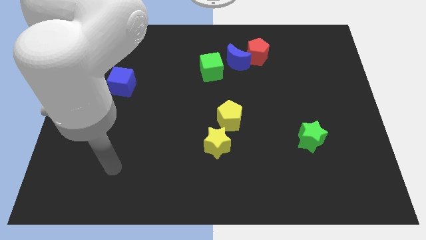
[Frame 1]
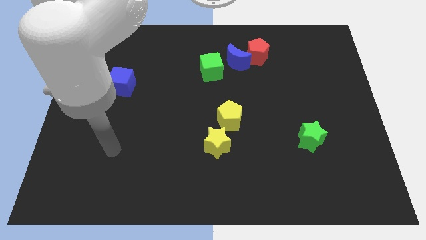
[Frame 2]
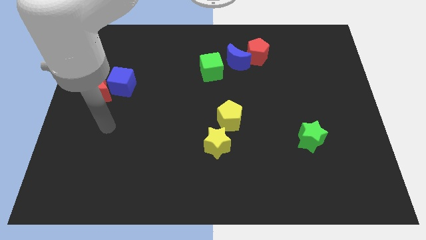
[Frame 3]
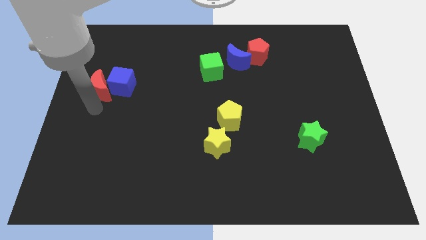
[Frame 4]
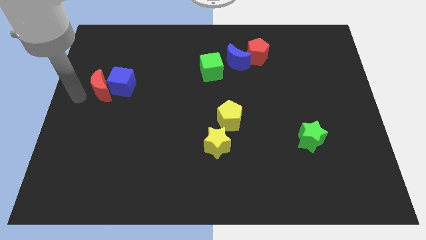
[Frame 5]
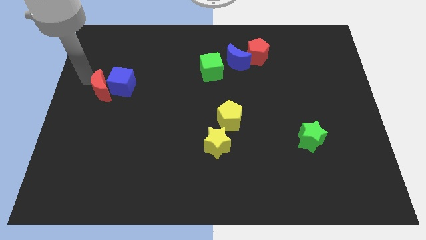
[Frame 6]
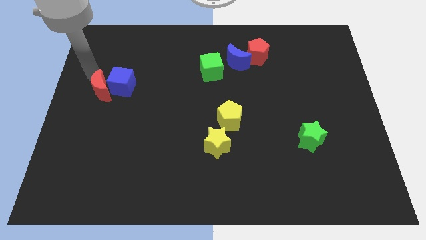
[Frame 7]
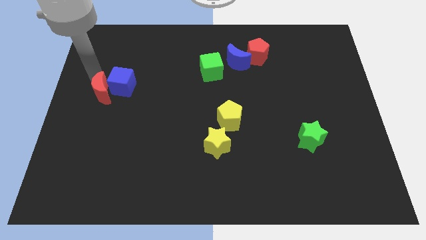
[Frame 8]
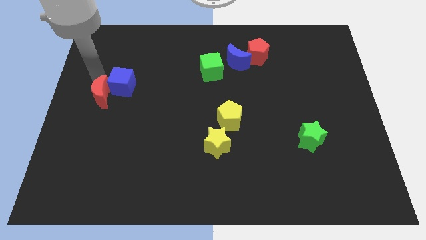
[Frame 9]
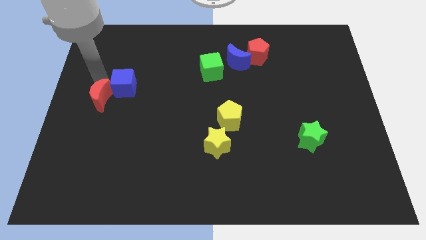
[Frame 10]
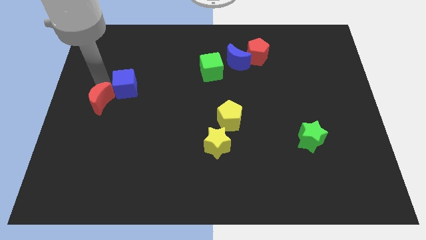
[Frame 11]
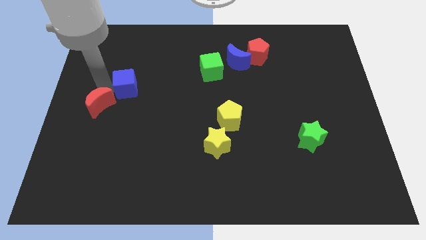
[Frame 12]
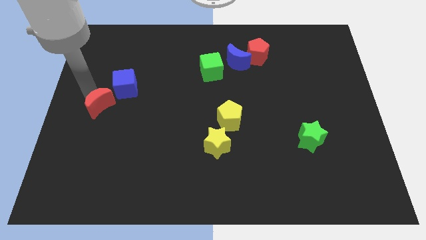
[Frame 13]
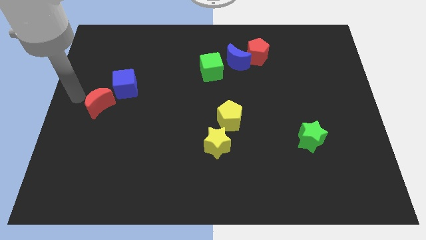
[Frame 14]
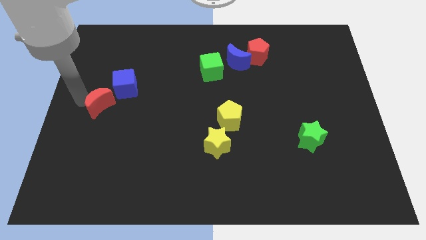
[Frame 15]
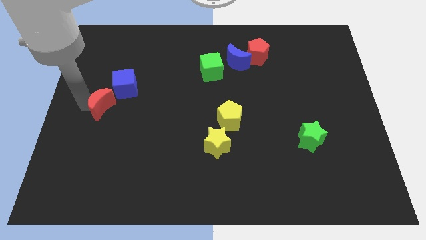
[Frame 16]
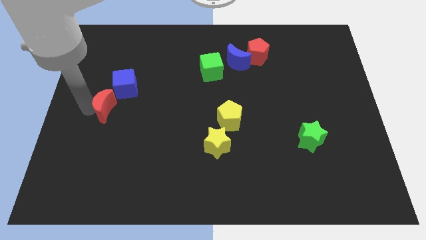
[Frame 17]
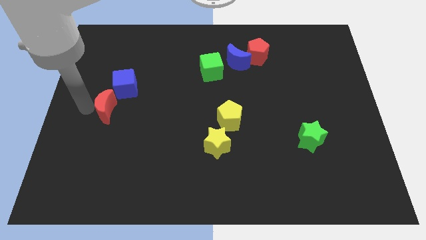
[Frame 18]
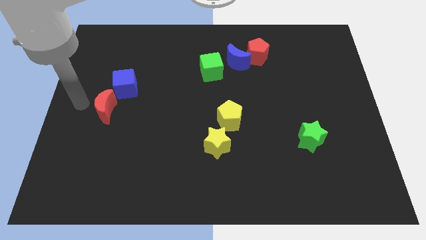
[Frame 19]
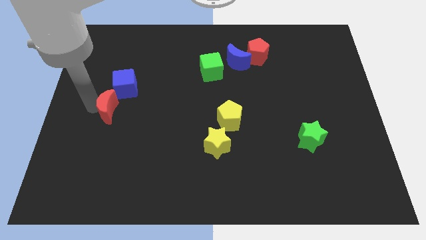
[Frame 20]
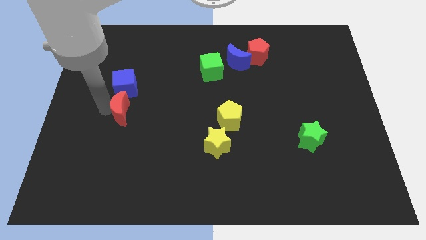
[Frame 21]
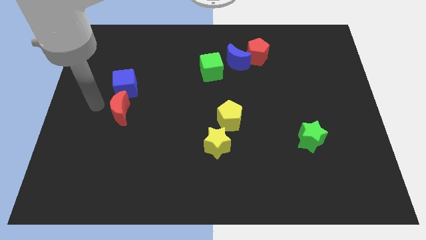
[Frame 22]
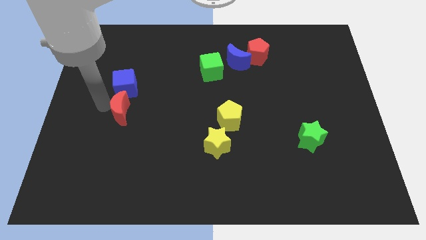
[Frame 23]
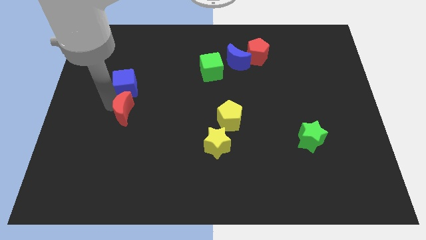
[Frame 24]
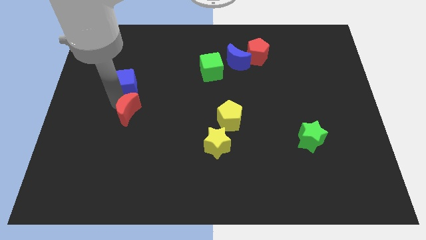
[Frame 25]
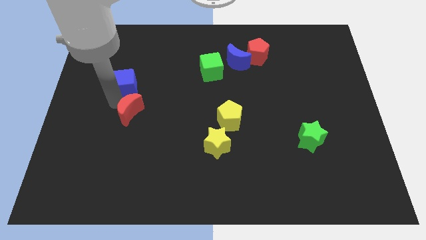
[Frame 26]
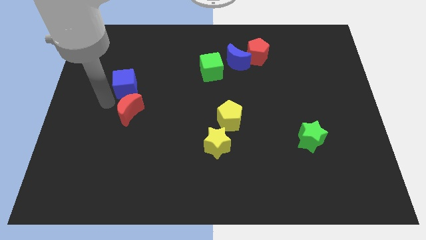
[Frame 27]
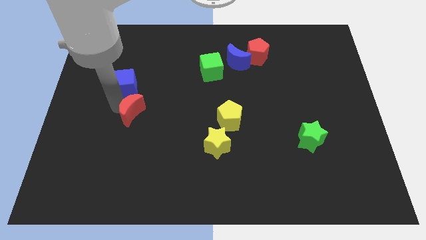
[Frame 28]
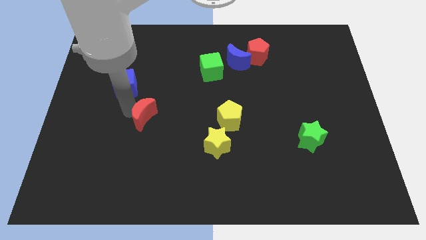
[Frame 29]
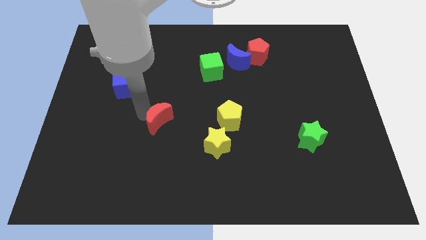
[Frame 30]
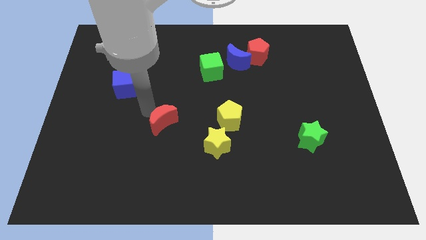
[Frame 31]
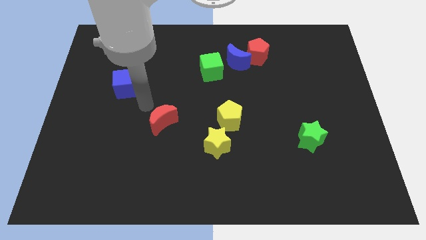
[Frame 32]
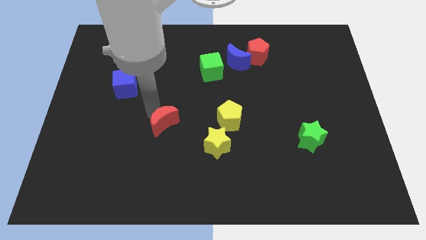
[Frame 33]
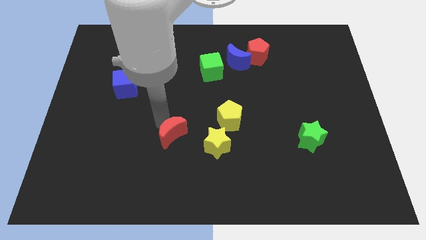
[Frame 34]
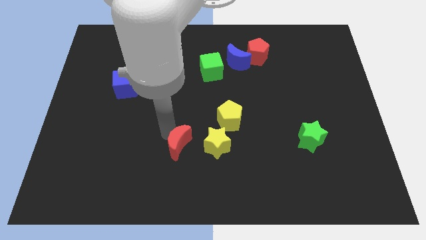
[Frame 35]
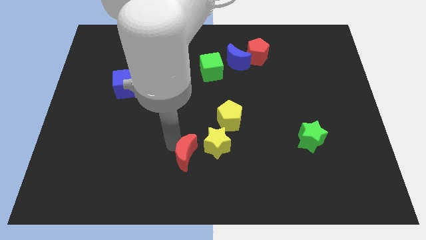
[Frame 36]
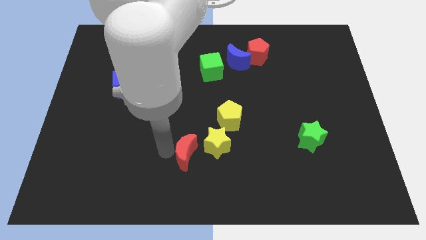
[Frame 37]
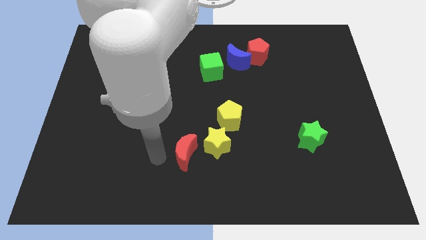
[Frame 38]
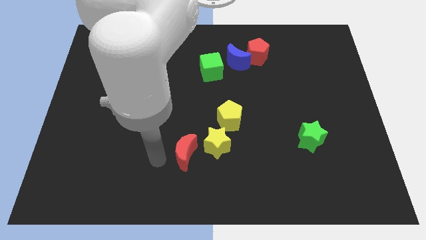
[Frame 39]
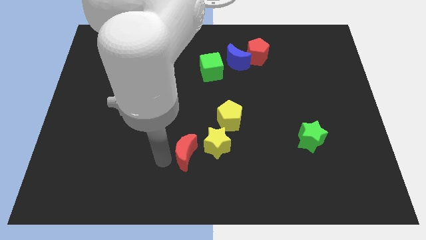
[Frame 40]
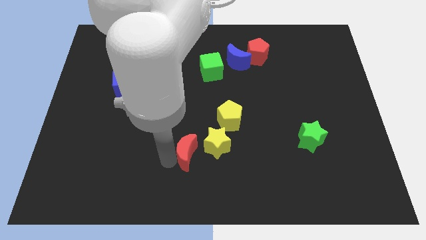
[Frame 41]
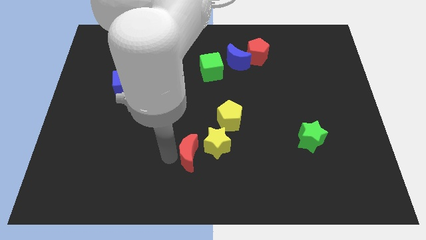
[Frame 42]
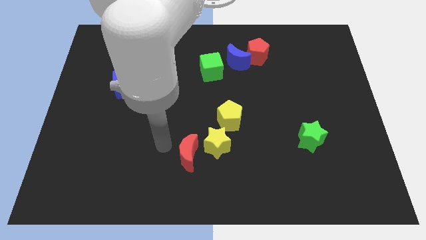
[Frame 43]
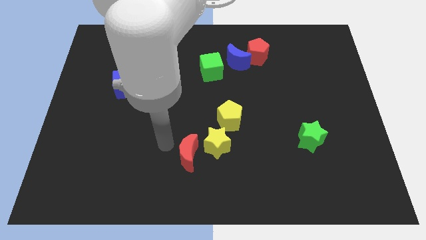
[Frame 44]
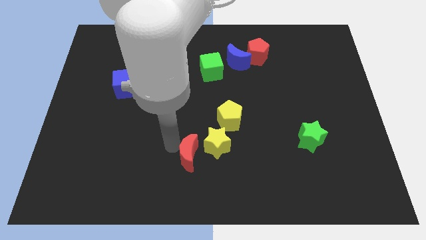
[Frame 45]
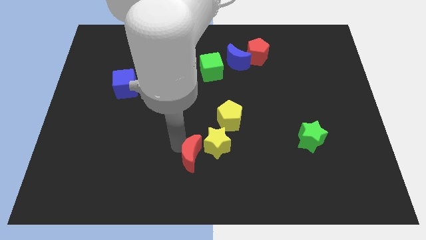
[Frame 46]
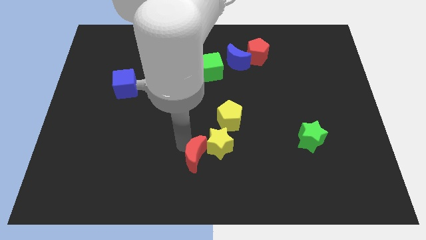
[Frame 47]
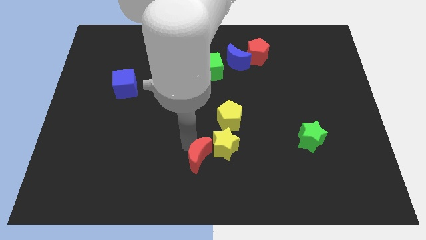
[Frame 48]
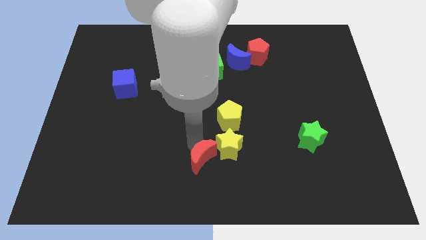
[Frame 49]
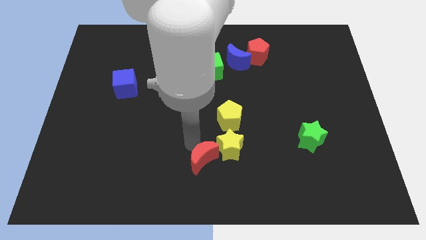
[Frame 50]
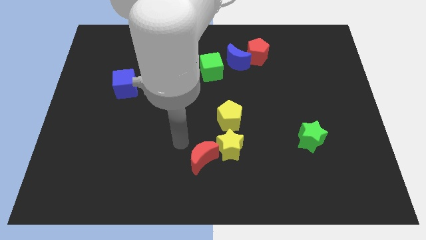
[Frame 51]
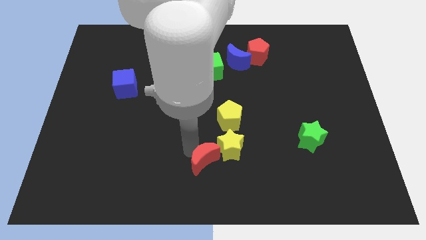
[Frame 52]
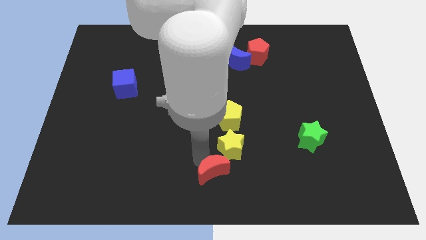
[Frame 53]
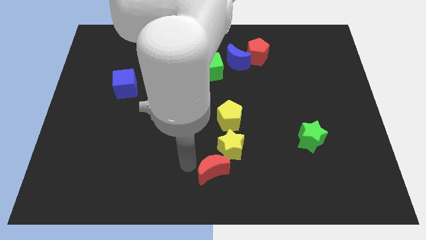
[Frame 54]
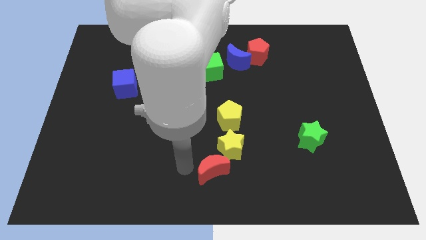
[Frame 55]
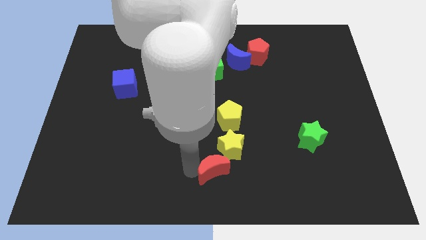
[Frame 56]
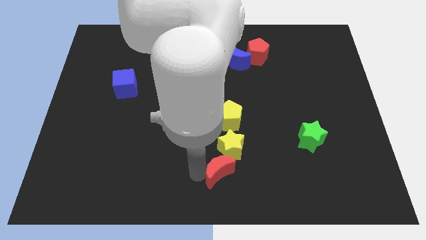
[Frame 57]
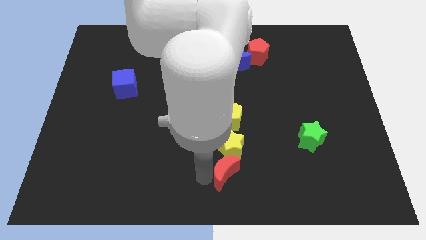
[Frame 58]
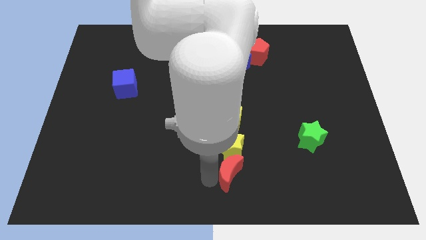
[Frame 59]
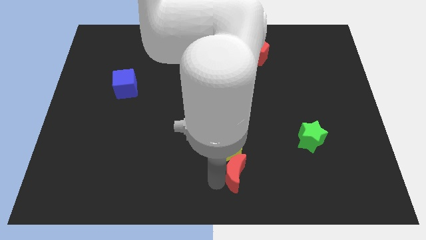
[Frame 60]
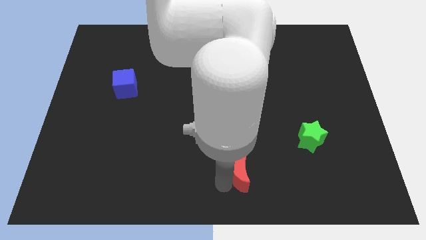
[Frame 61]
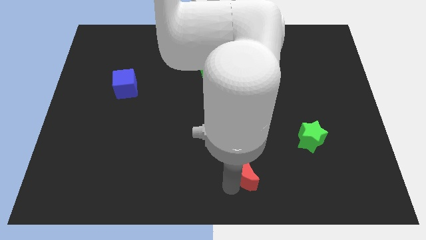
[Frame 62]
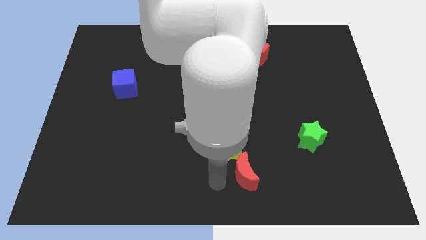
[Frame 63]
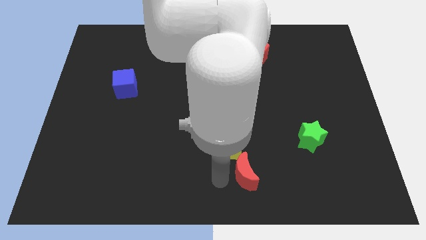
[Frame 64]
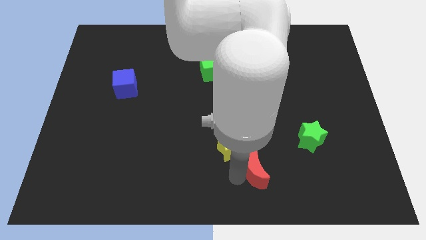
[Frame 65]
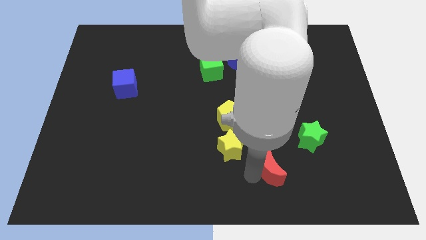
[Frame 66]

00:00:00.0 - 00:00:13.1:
slide the red moon to the bottom left side of the green star

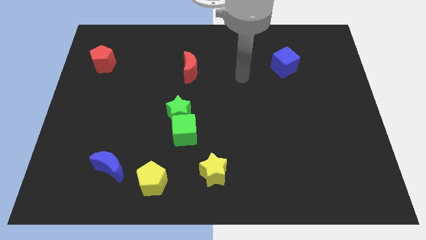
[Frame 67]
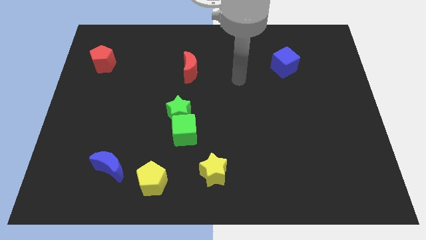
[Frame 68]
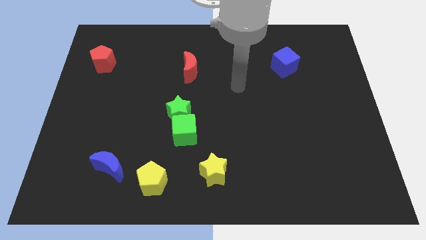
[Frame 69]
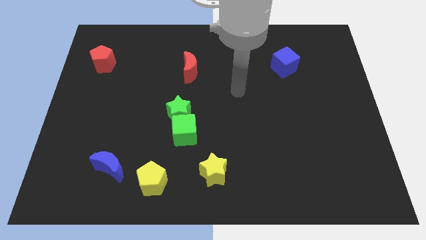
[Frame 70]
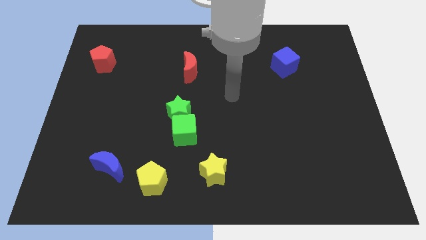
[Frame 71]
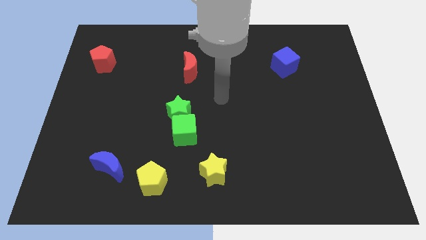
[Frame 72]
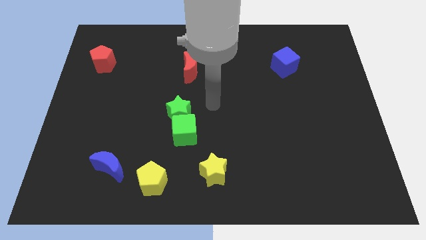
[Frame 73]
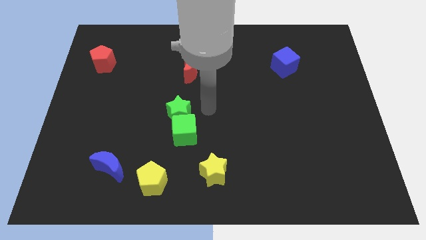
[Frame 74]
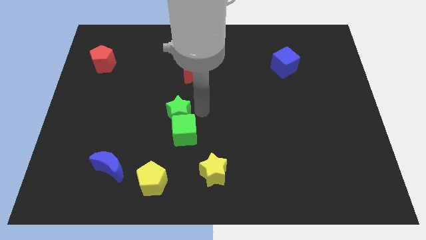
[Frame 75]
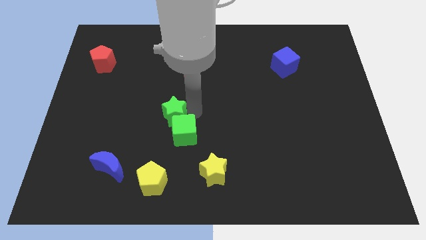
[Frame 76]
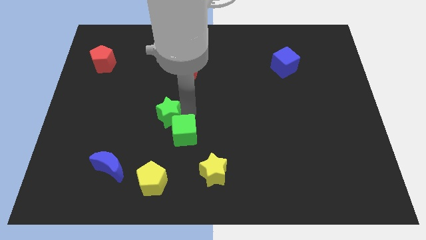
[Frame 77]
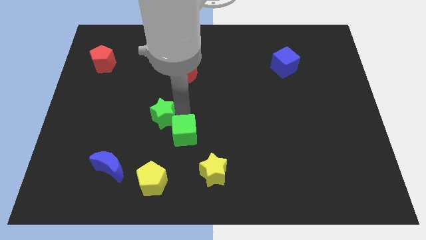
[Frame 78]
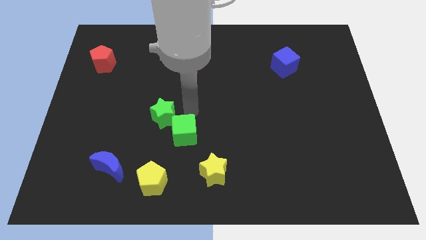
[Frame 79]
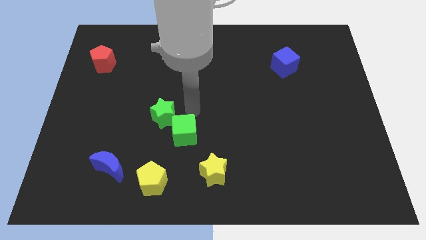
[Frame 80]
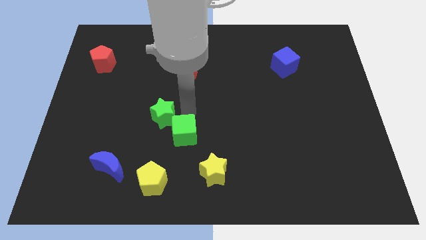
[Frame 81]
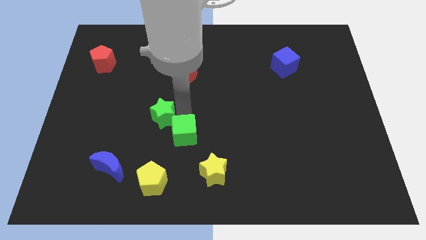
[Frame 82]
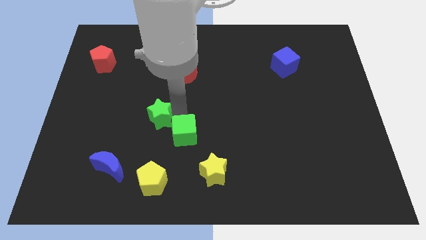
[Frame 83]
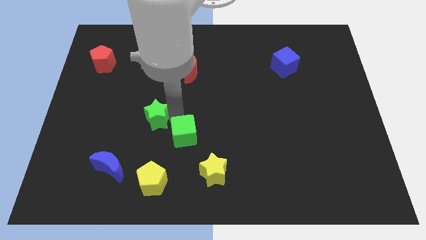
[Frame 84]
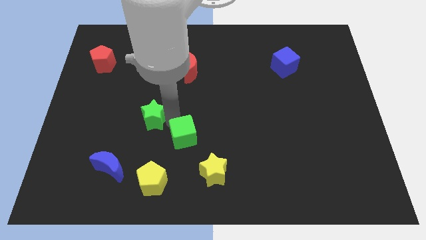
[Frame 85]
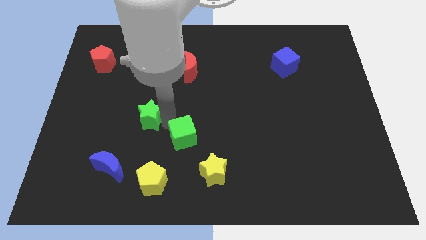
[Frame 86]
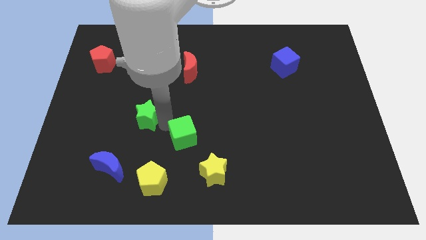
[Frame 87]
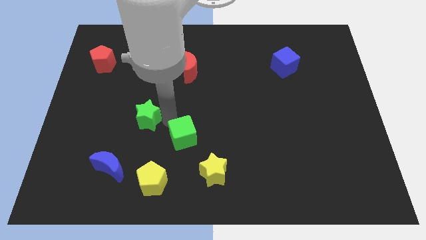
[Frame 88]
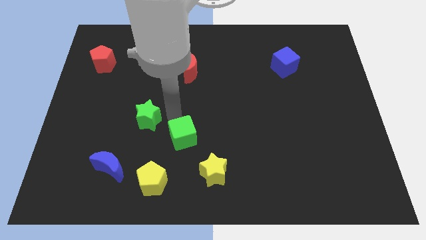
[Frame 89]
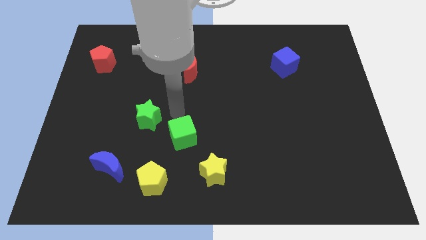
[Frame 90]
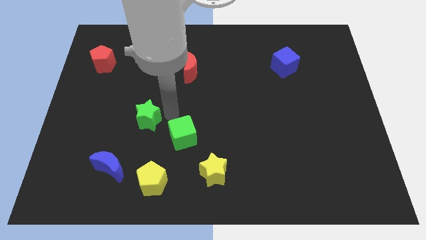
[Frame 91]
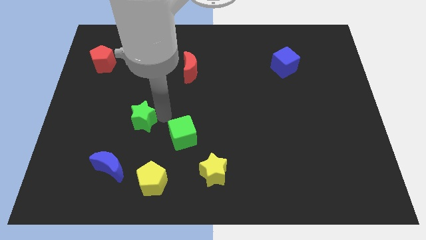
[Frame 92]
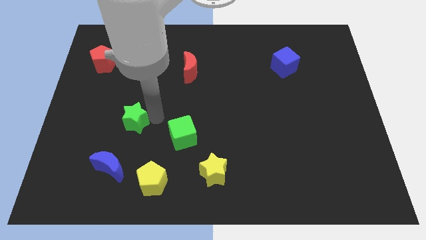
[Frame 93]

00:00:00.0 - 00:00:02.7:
push the green star to the top side of the blue moon
